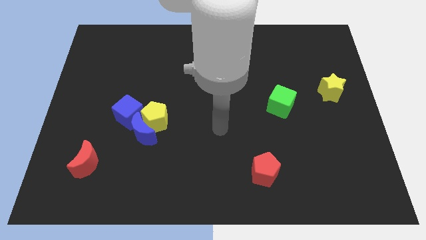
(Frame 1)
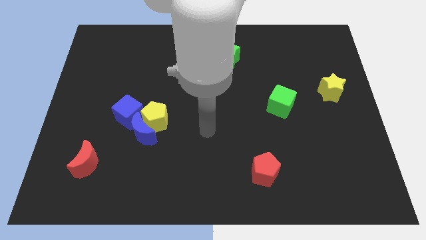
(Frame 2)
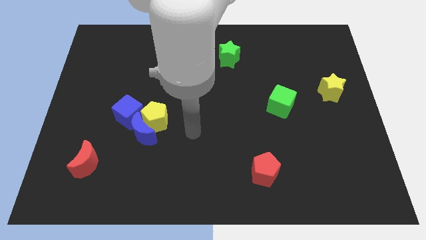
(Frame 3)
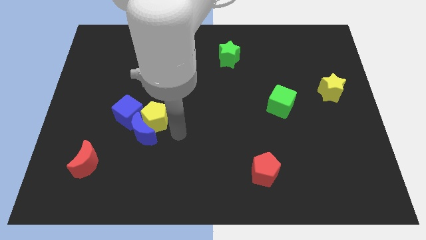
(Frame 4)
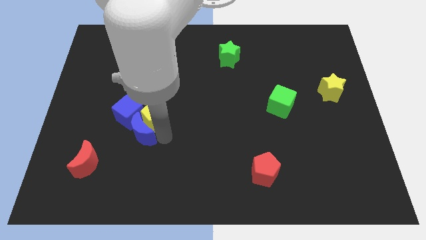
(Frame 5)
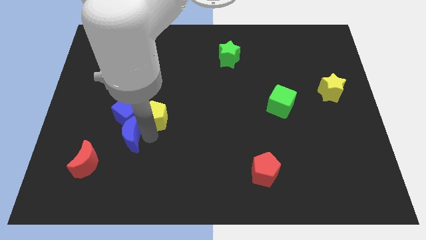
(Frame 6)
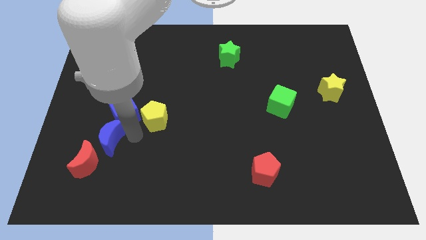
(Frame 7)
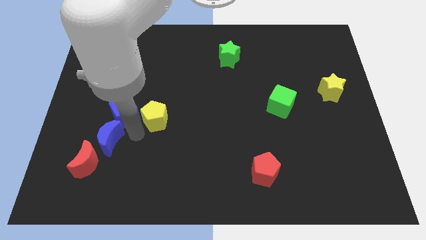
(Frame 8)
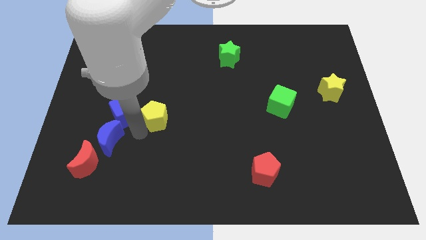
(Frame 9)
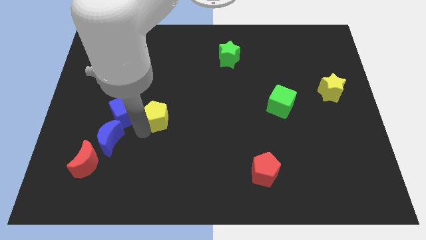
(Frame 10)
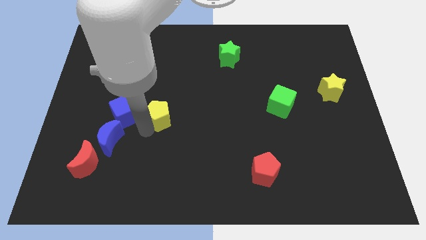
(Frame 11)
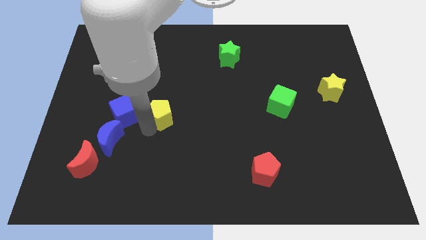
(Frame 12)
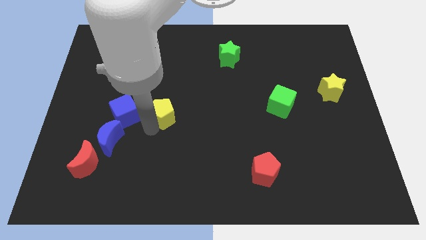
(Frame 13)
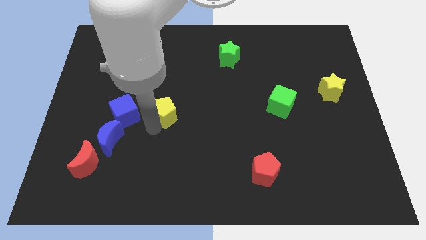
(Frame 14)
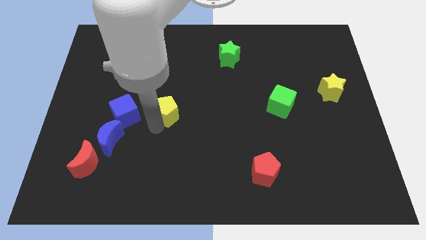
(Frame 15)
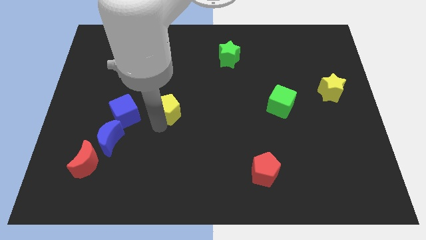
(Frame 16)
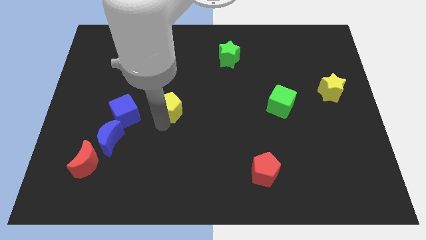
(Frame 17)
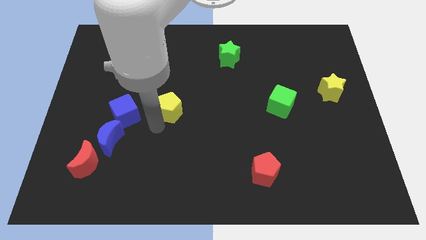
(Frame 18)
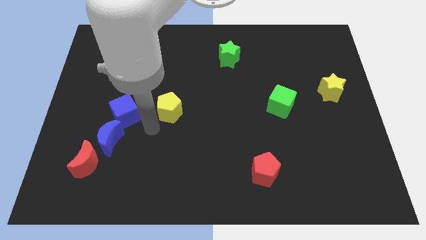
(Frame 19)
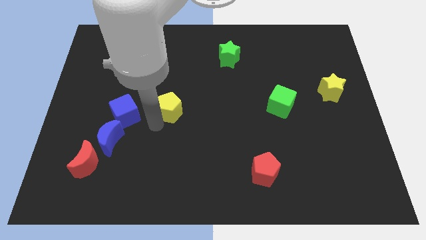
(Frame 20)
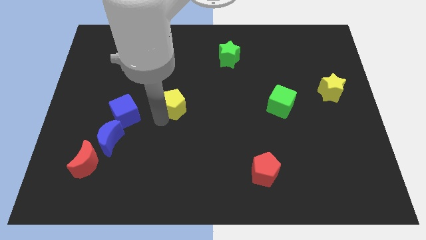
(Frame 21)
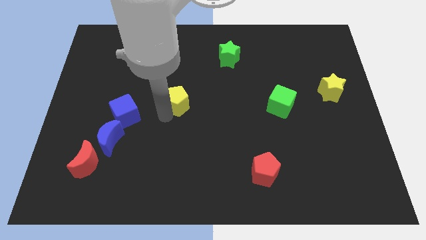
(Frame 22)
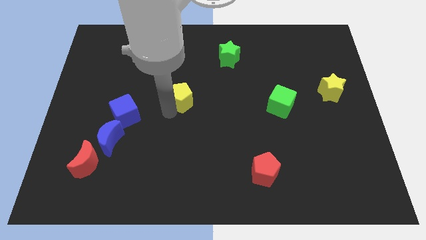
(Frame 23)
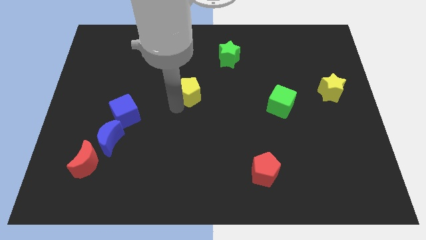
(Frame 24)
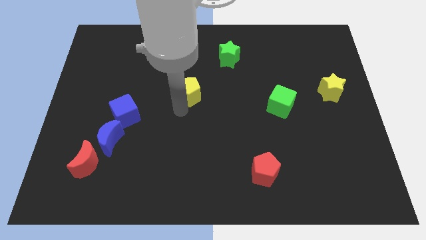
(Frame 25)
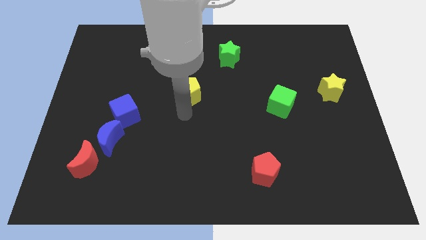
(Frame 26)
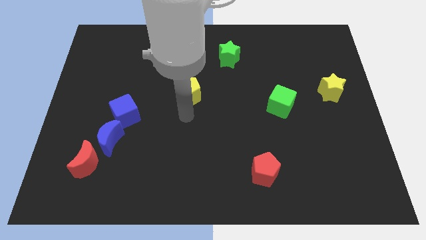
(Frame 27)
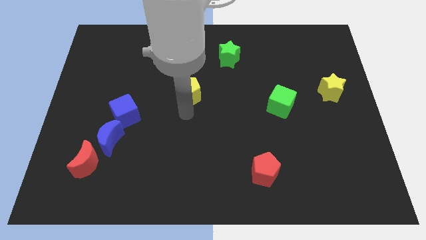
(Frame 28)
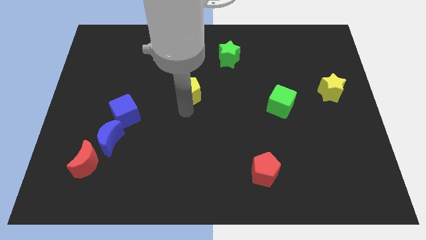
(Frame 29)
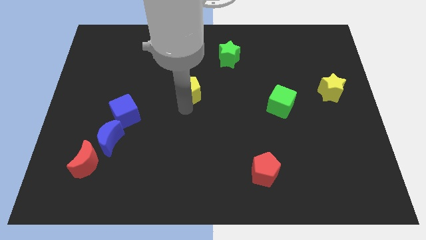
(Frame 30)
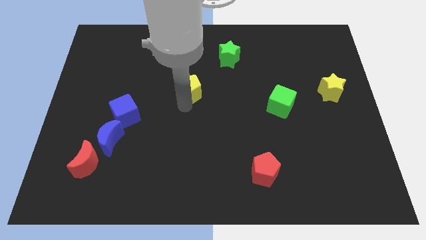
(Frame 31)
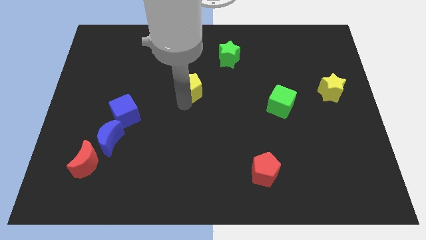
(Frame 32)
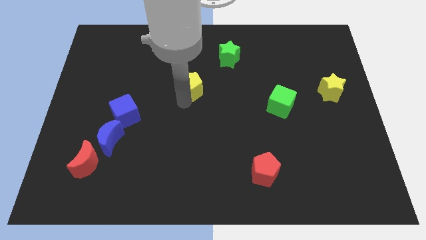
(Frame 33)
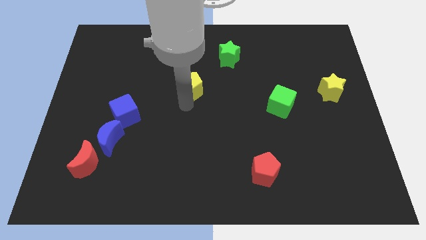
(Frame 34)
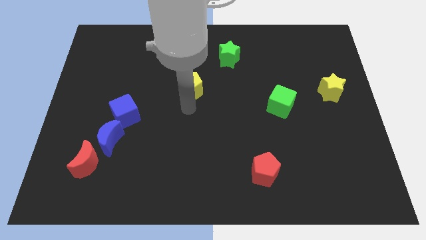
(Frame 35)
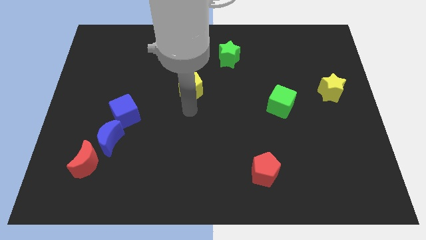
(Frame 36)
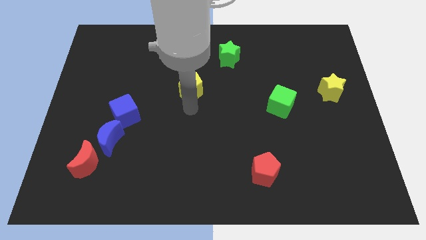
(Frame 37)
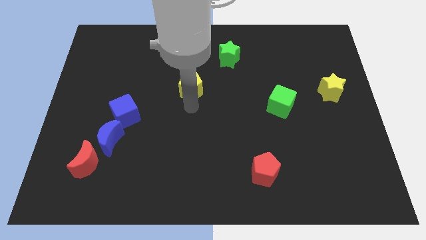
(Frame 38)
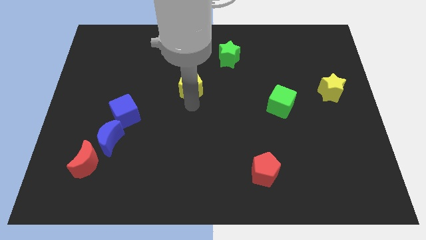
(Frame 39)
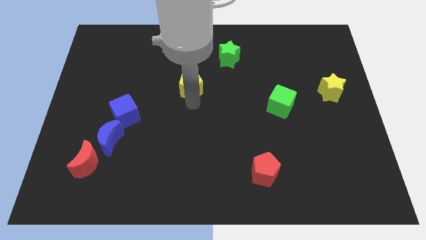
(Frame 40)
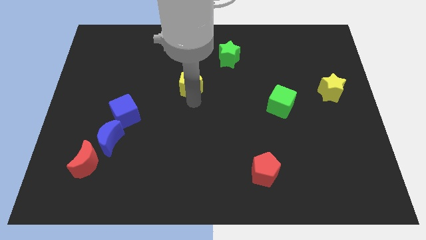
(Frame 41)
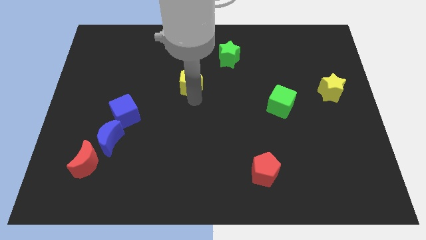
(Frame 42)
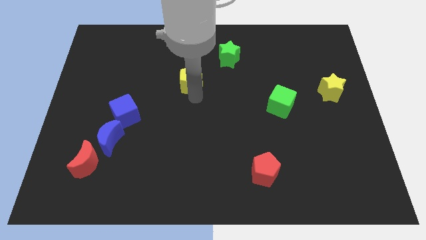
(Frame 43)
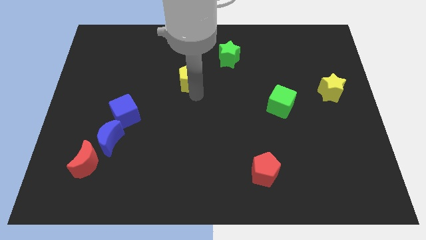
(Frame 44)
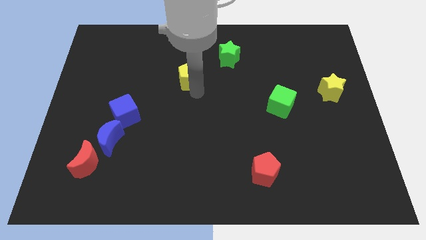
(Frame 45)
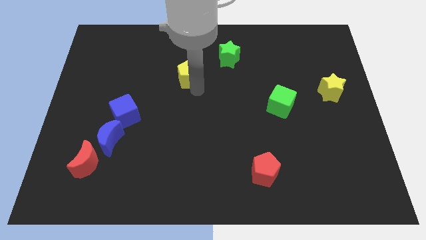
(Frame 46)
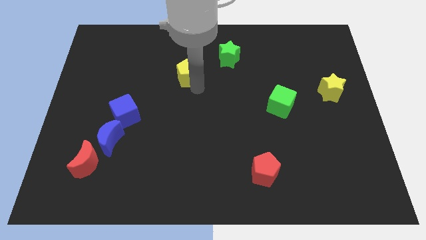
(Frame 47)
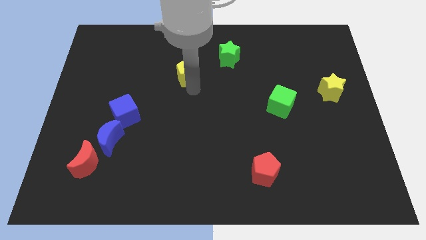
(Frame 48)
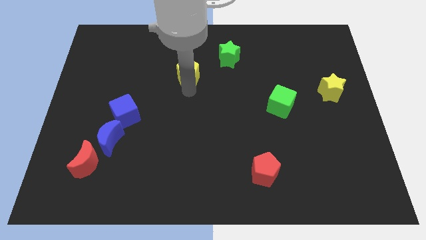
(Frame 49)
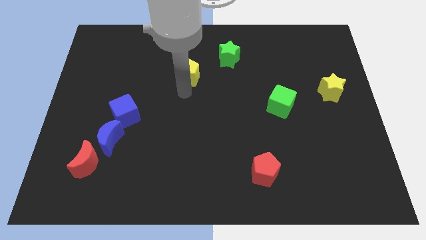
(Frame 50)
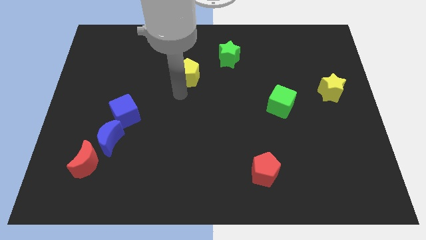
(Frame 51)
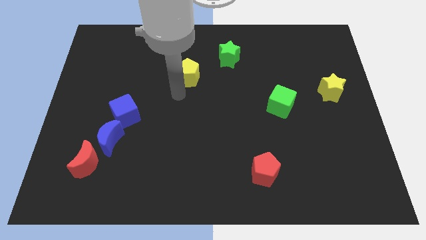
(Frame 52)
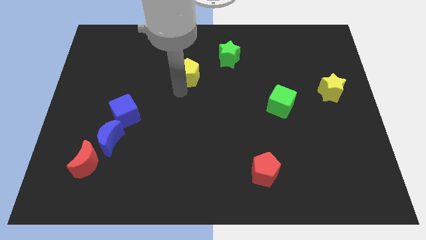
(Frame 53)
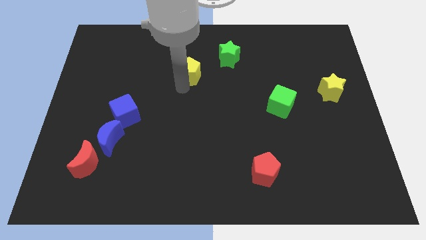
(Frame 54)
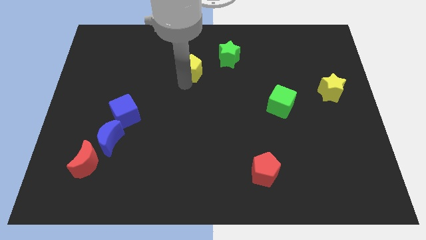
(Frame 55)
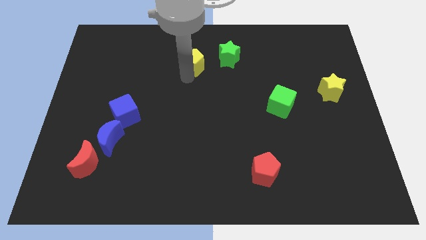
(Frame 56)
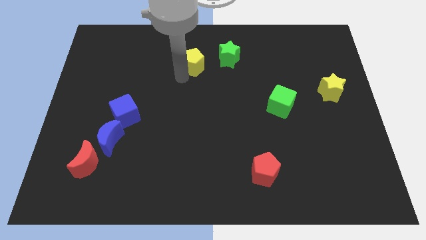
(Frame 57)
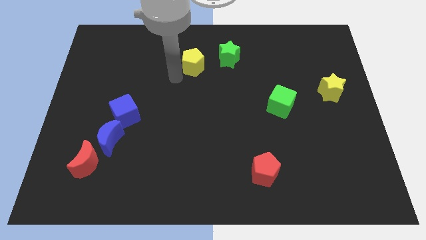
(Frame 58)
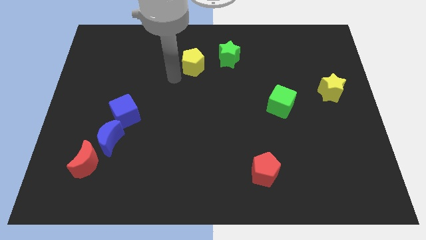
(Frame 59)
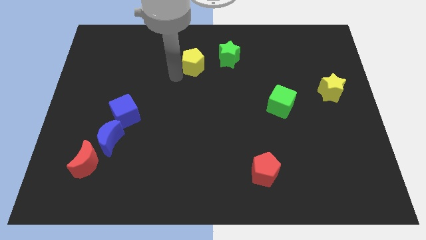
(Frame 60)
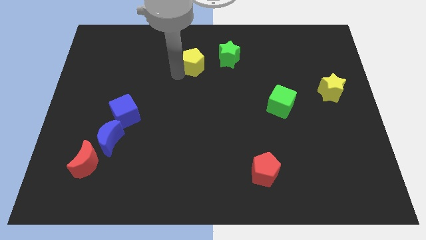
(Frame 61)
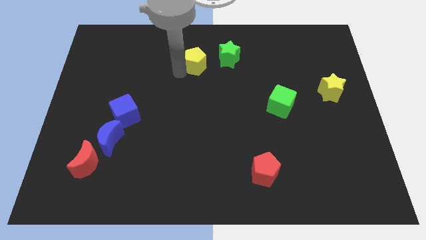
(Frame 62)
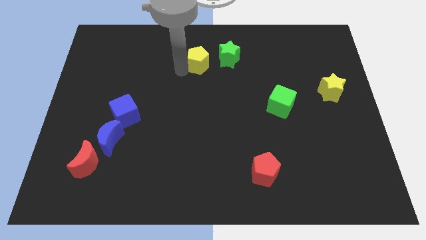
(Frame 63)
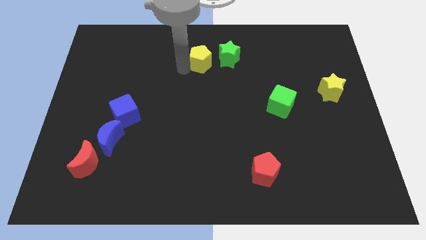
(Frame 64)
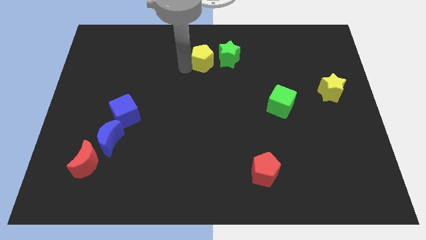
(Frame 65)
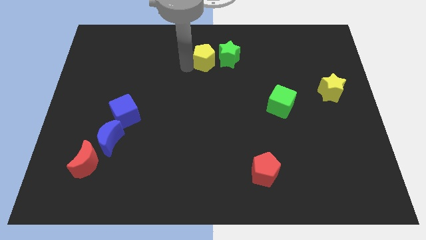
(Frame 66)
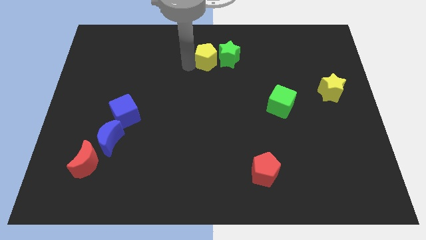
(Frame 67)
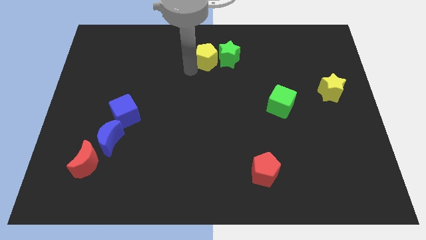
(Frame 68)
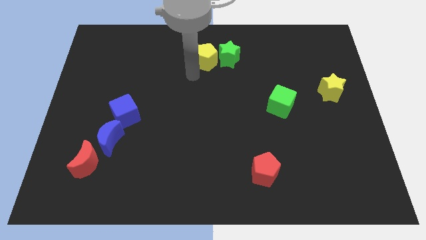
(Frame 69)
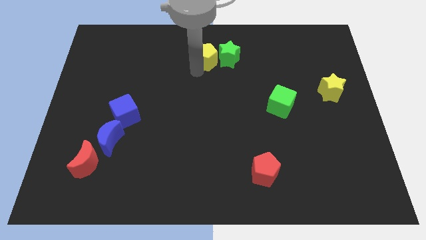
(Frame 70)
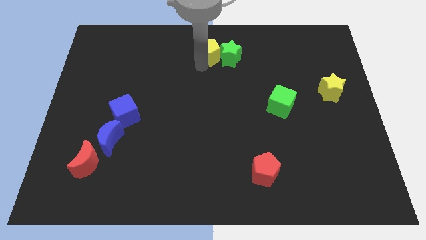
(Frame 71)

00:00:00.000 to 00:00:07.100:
push the yellow pentagon to the towards your base
